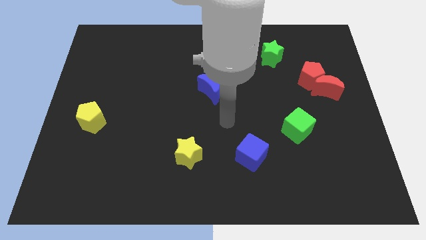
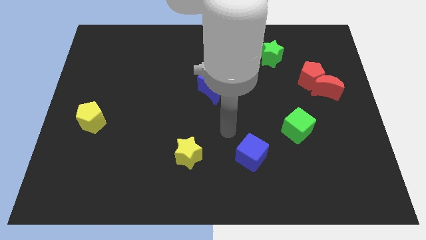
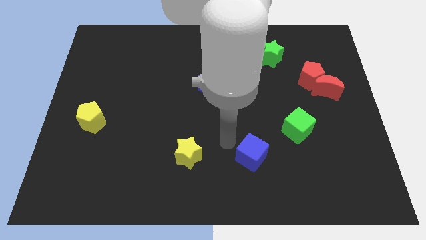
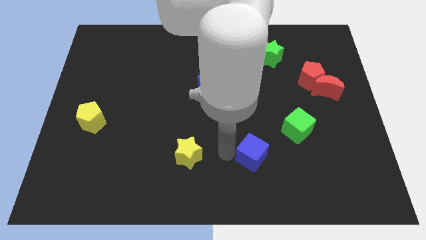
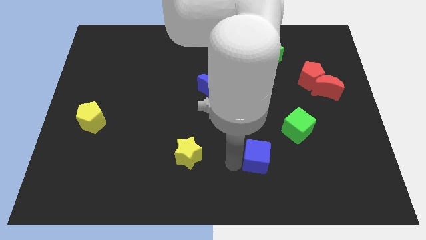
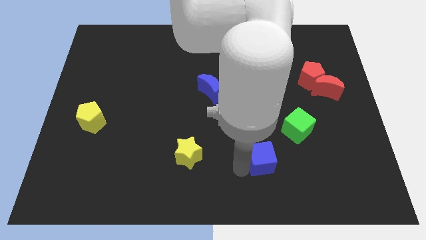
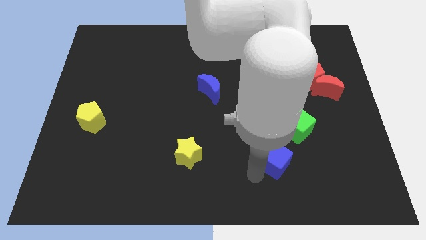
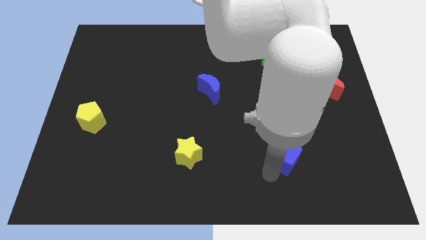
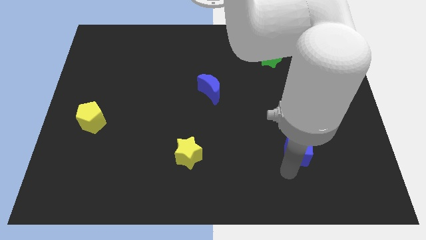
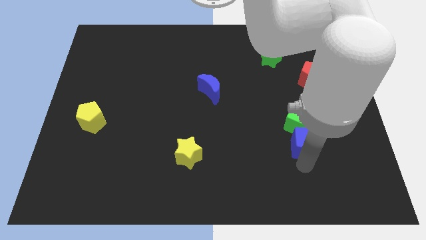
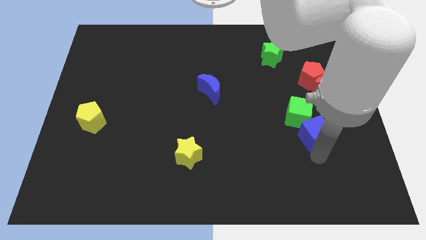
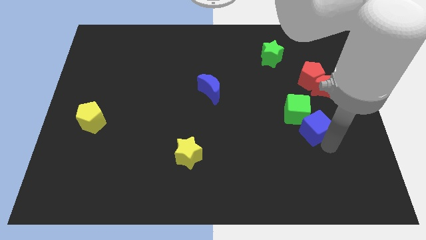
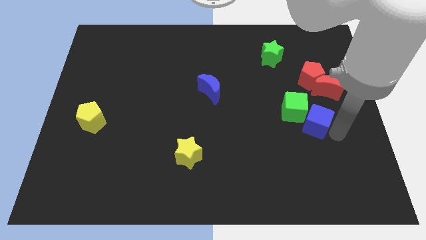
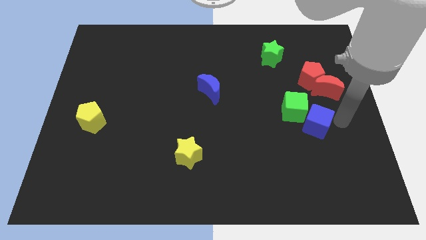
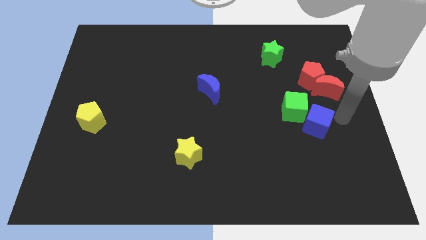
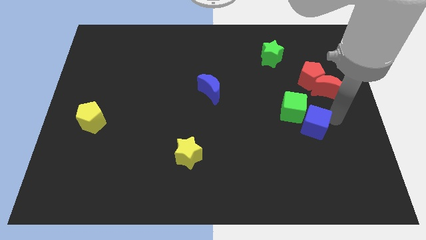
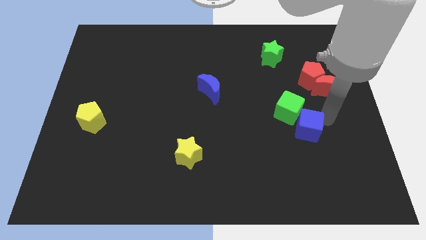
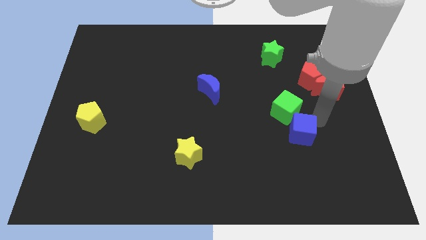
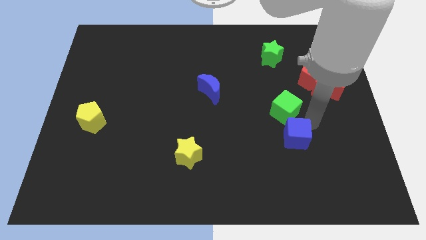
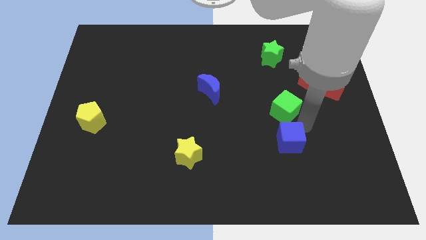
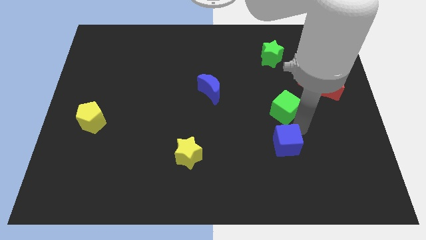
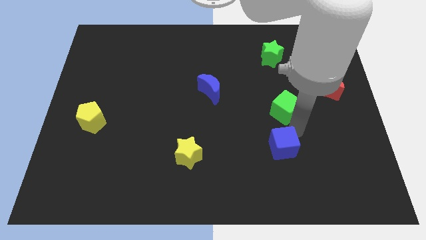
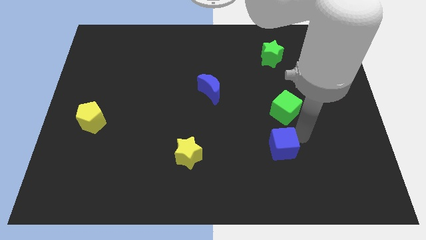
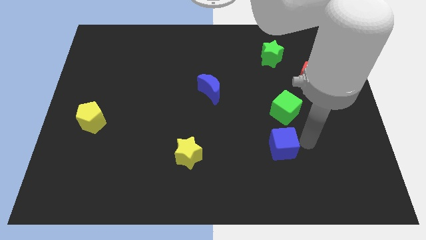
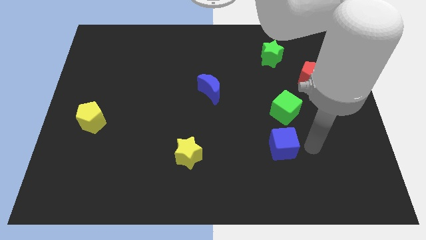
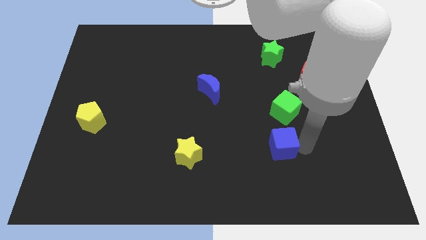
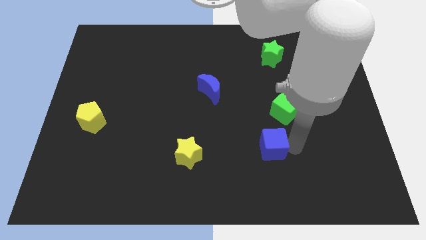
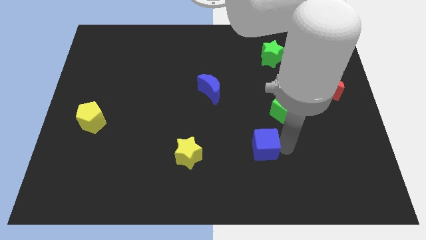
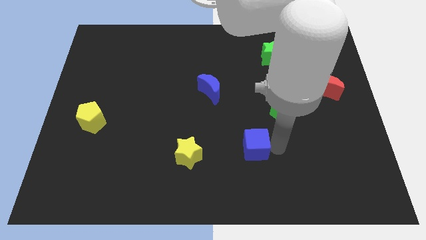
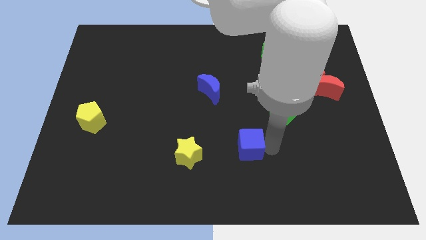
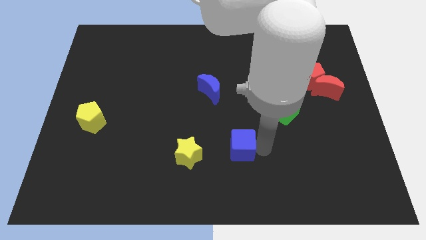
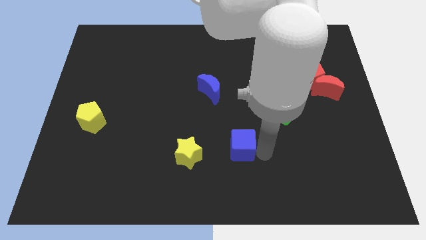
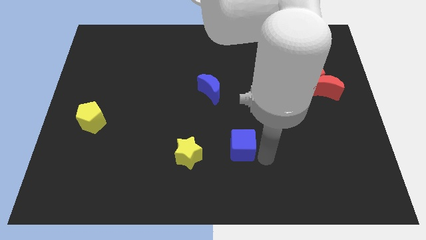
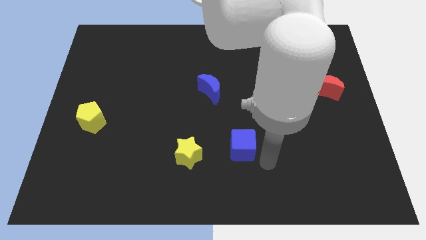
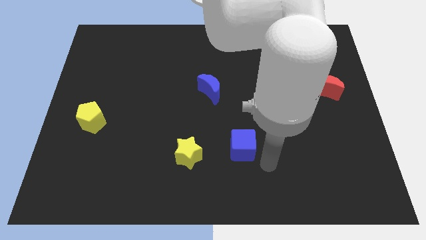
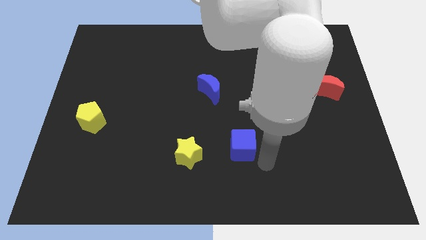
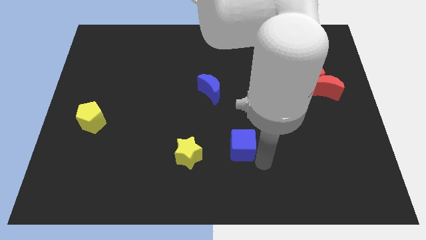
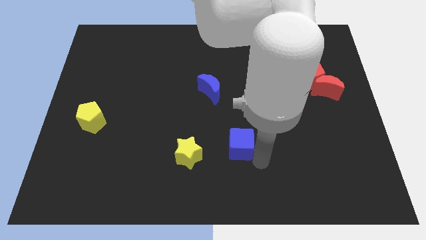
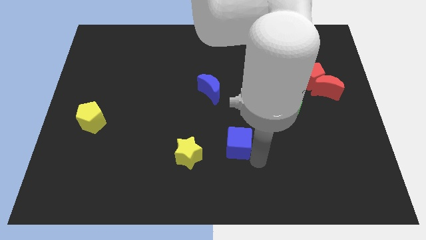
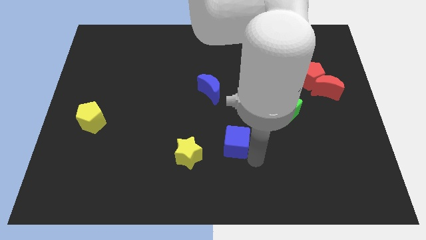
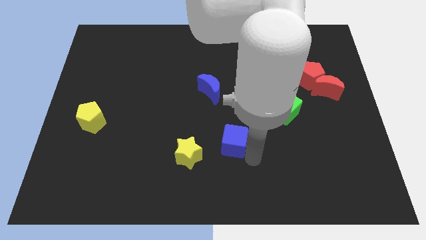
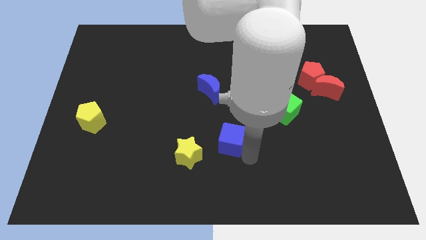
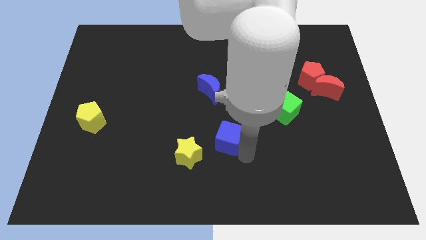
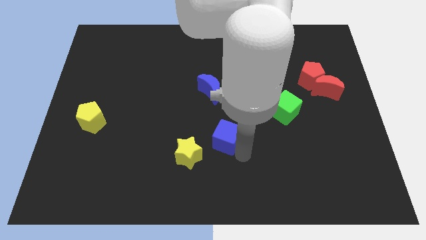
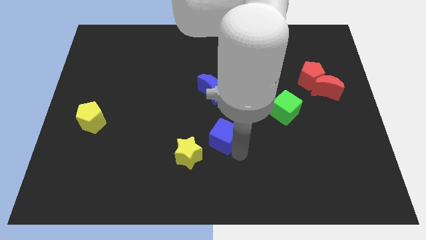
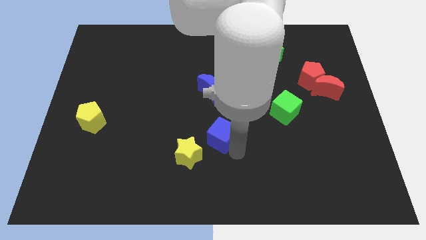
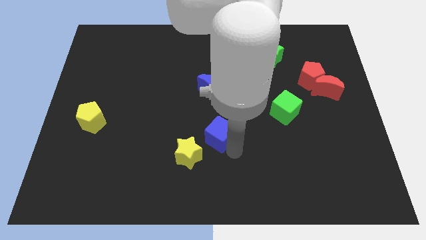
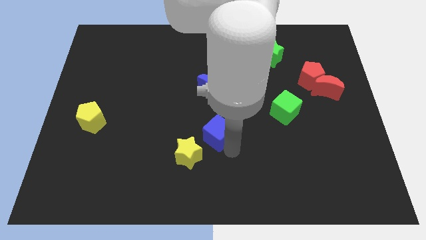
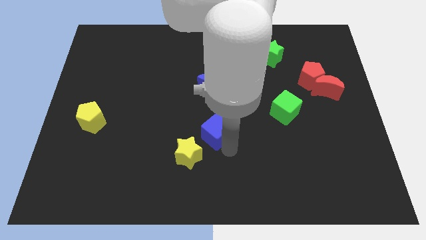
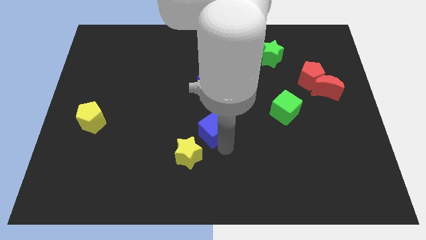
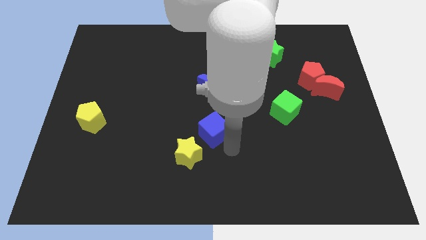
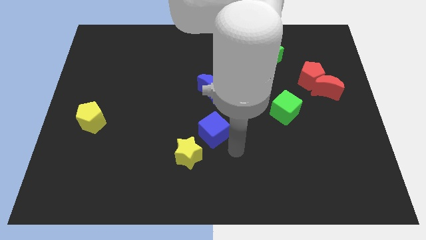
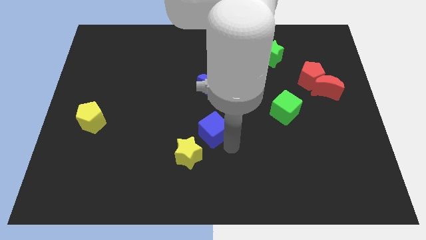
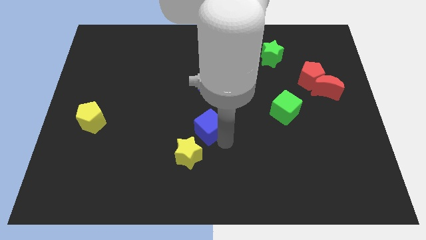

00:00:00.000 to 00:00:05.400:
put the blue cube to the top of the yellow star

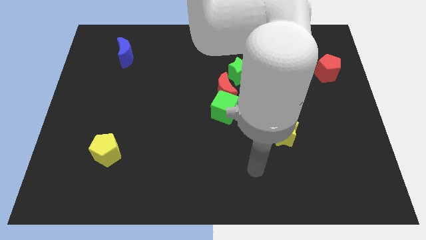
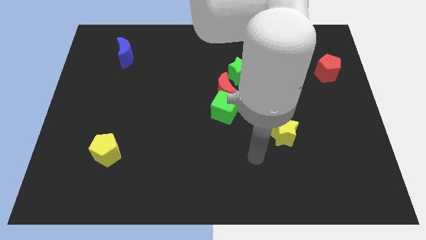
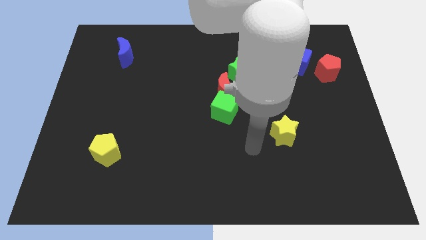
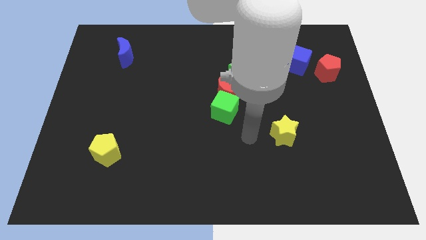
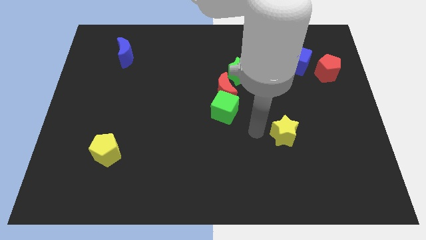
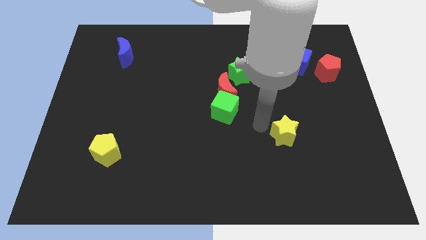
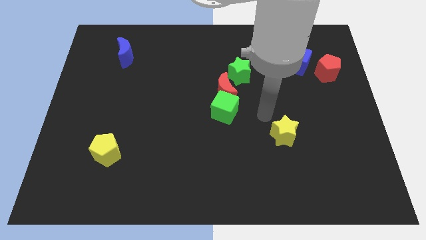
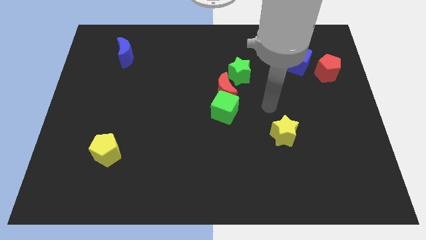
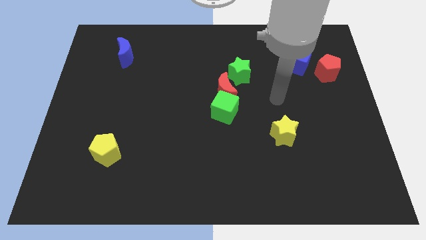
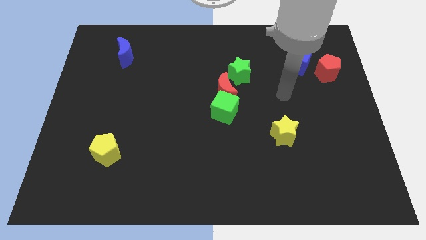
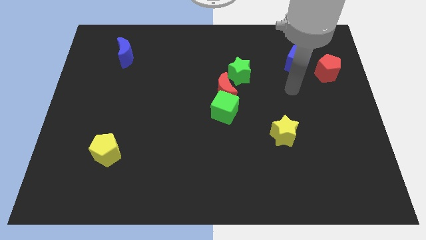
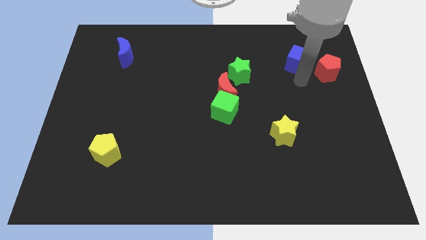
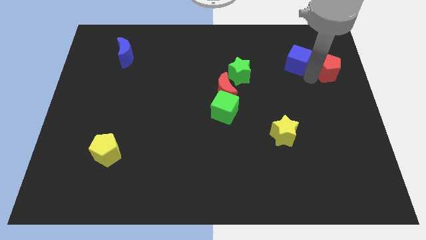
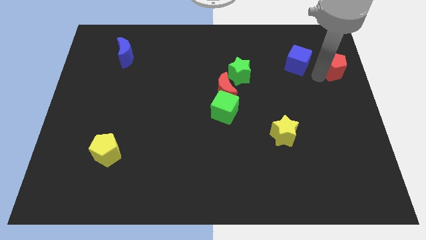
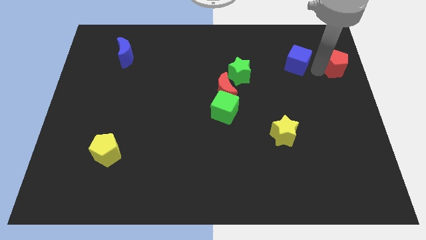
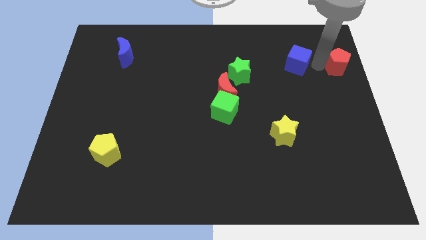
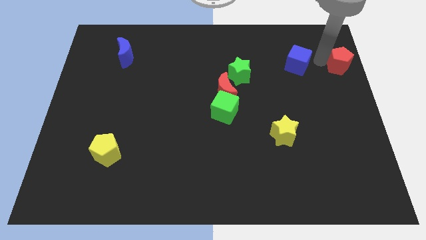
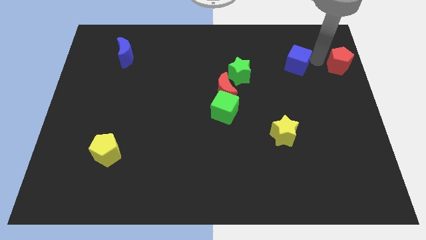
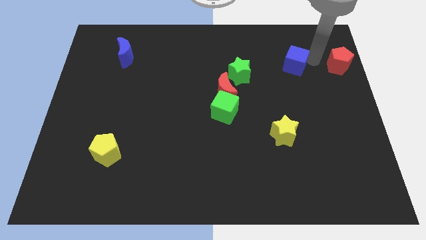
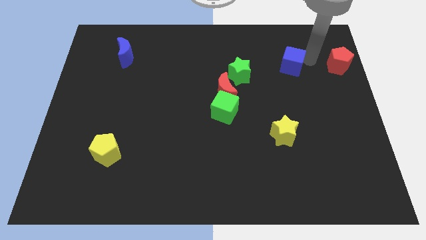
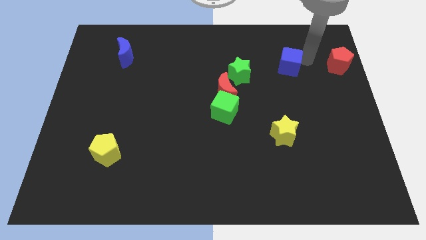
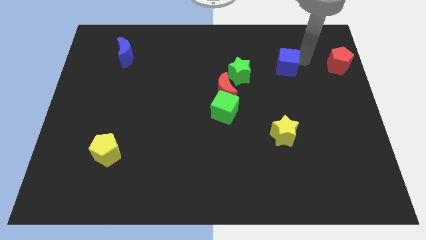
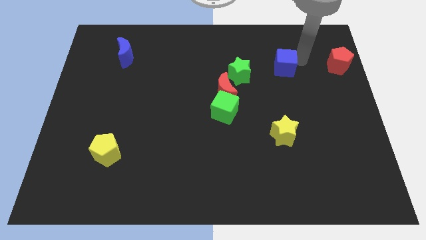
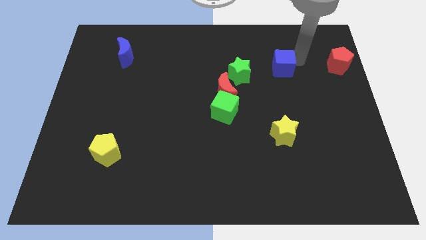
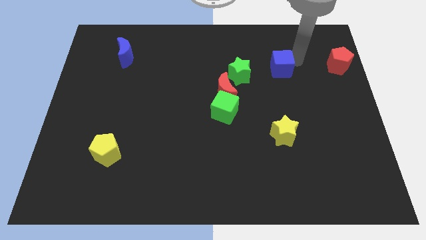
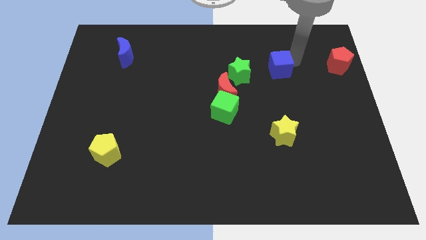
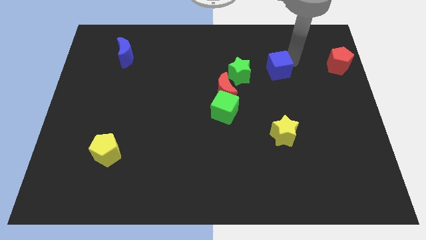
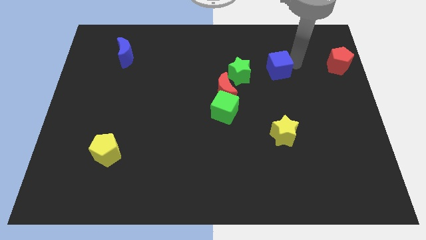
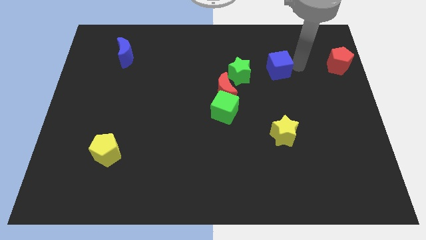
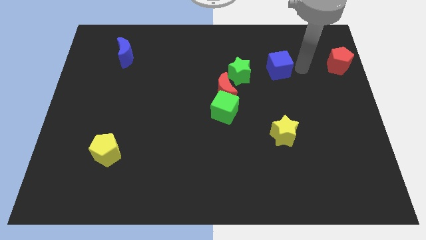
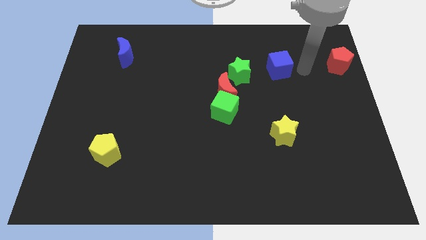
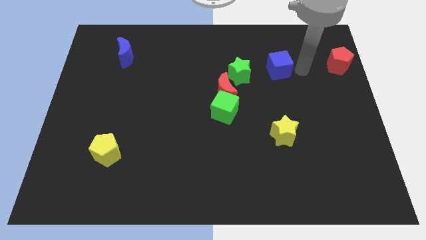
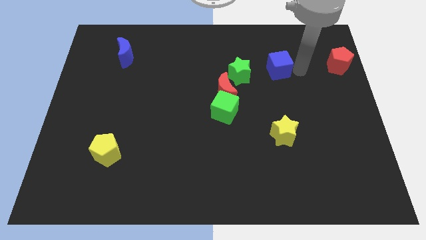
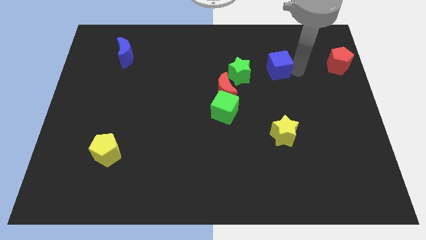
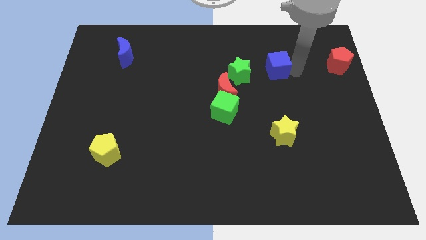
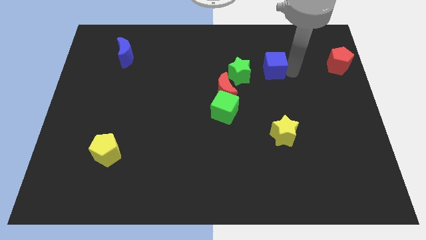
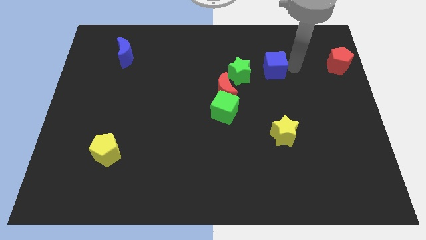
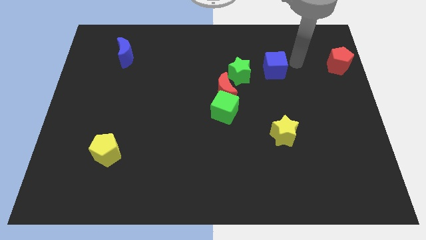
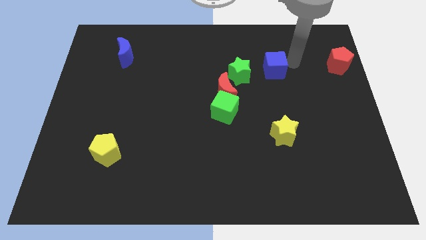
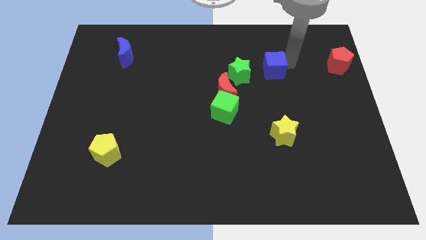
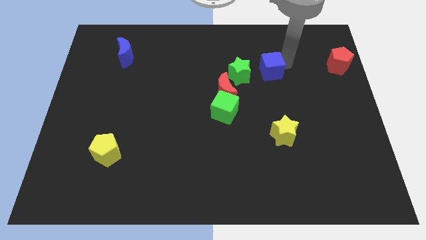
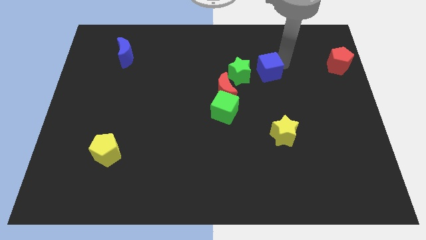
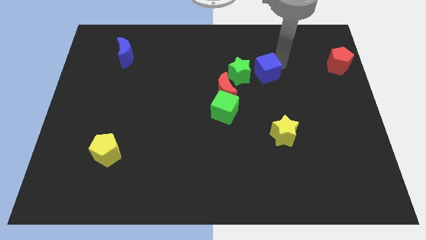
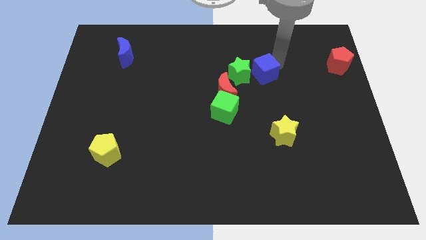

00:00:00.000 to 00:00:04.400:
put the blue cube to the top right of the red moon
